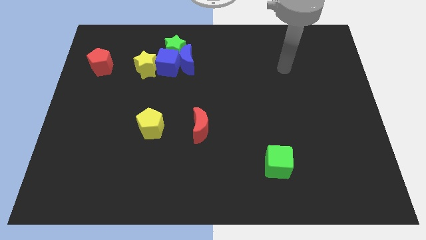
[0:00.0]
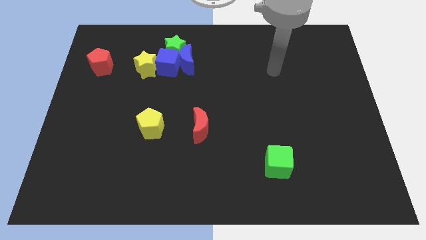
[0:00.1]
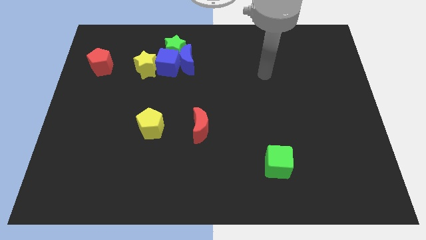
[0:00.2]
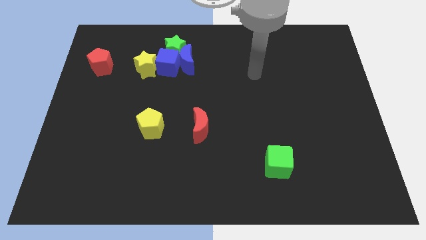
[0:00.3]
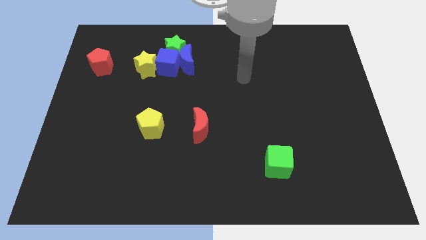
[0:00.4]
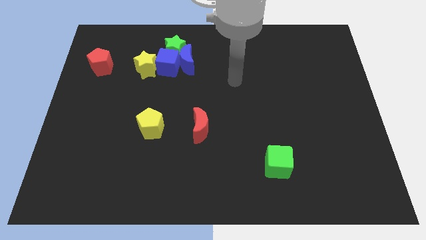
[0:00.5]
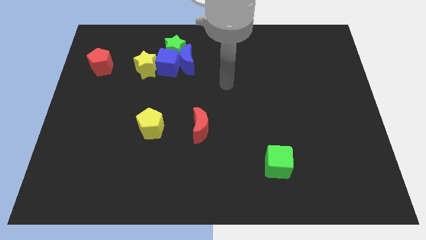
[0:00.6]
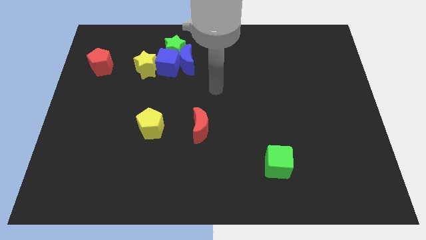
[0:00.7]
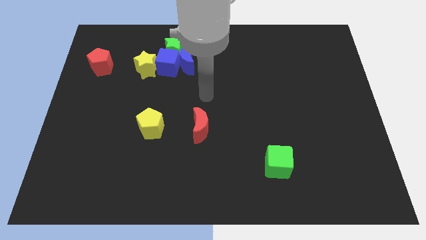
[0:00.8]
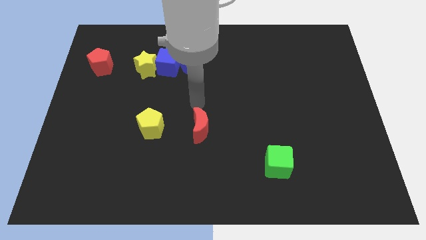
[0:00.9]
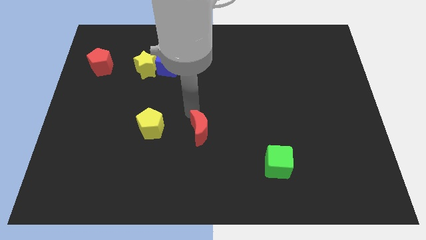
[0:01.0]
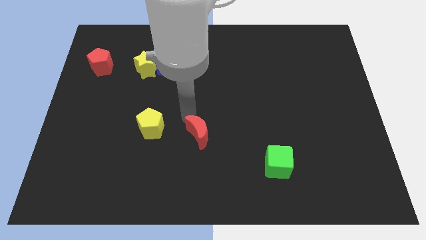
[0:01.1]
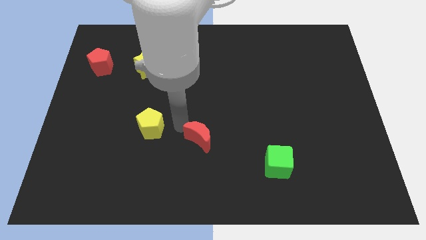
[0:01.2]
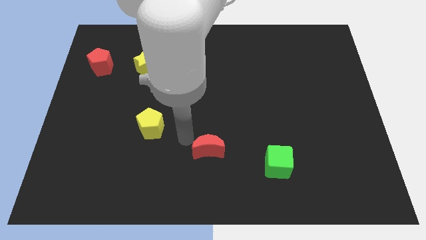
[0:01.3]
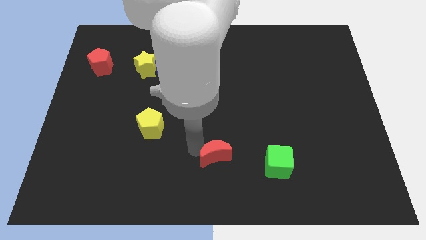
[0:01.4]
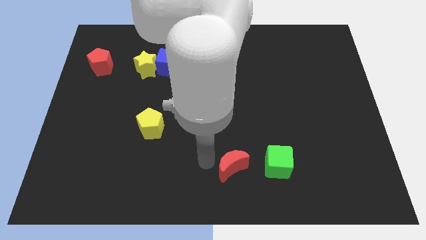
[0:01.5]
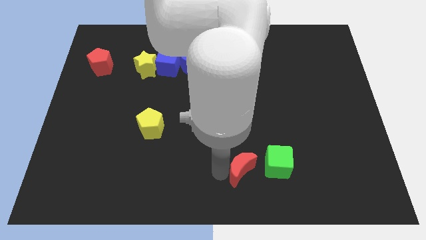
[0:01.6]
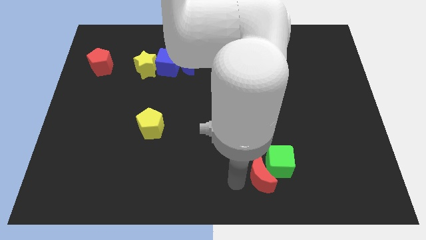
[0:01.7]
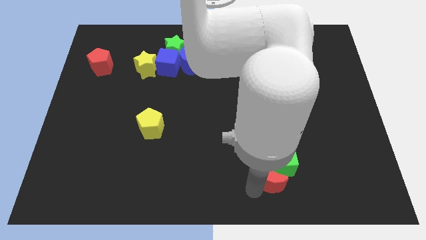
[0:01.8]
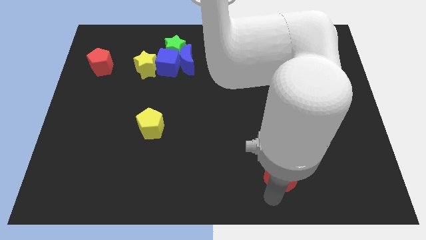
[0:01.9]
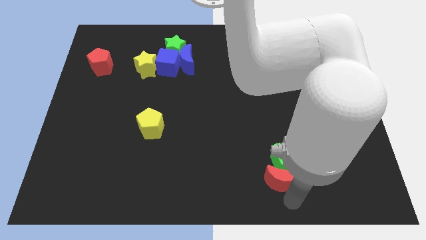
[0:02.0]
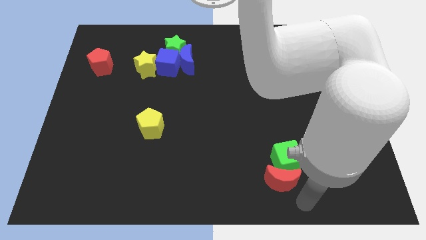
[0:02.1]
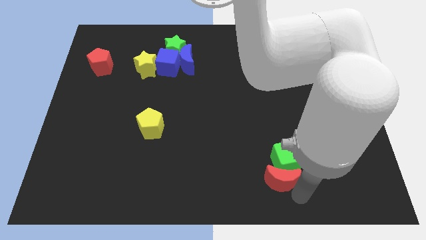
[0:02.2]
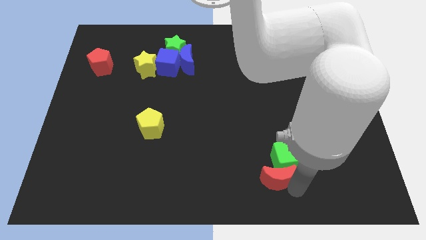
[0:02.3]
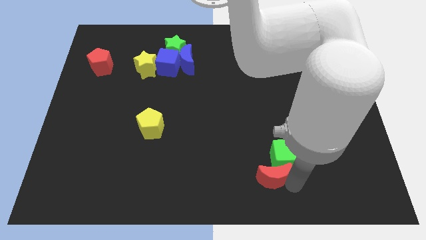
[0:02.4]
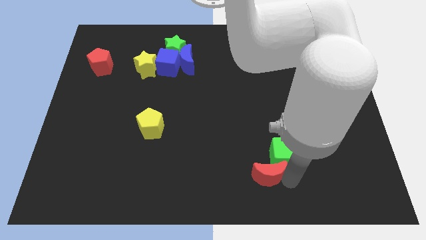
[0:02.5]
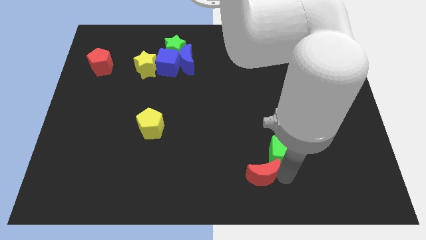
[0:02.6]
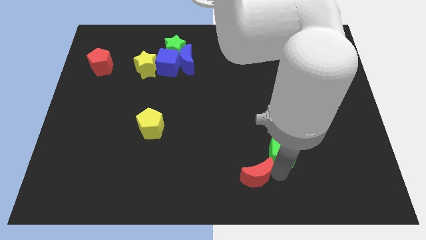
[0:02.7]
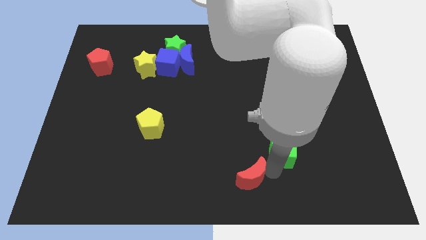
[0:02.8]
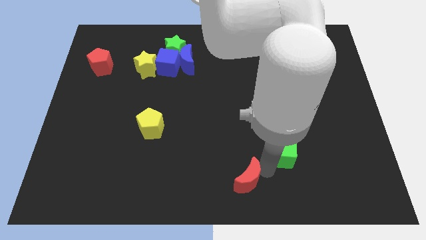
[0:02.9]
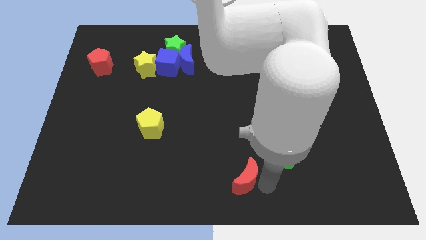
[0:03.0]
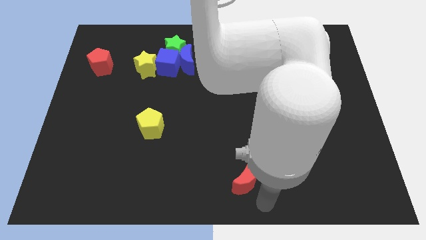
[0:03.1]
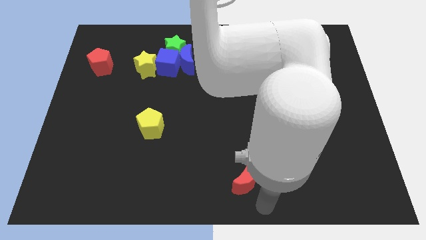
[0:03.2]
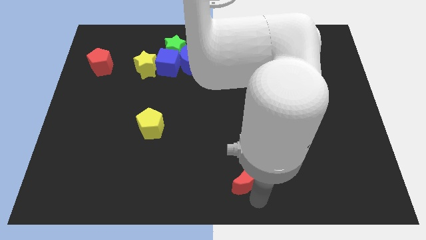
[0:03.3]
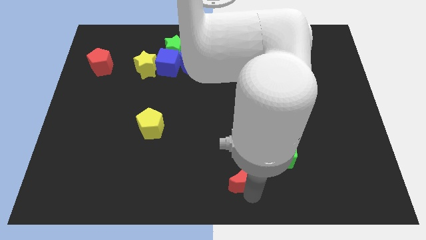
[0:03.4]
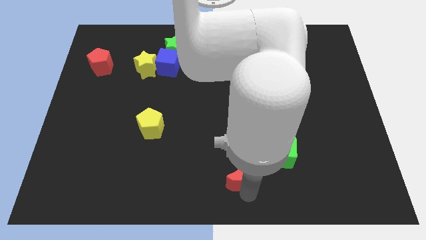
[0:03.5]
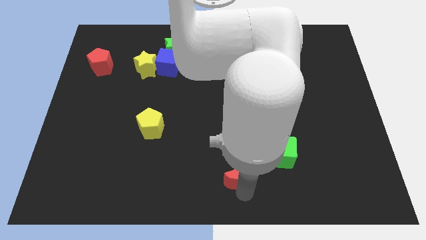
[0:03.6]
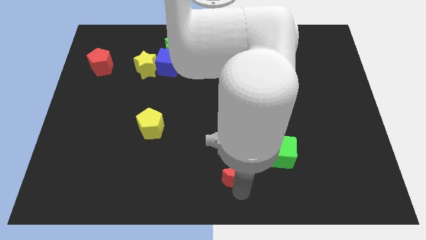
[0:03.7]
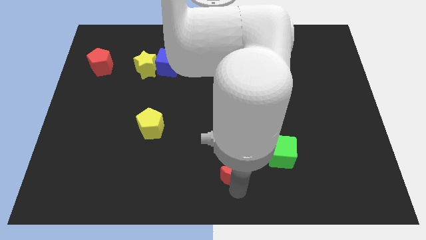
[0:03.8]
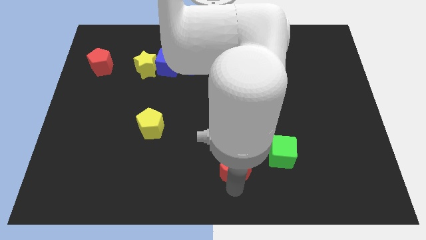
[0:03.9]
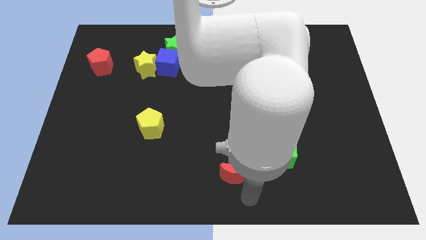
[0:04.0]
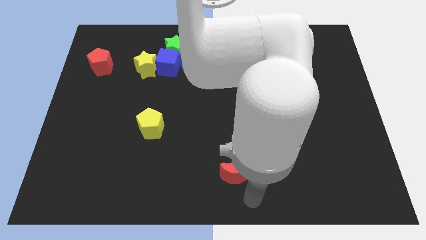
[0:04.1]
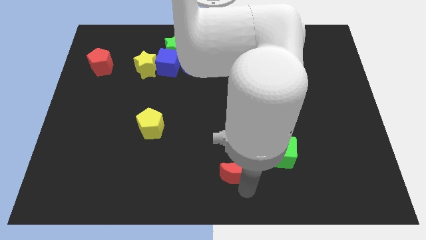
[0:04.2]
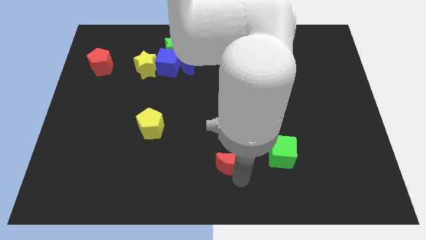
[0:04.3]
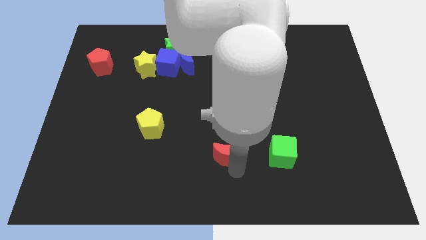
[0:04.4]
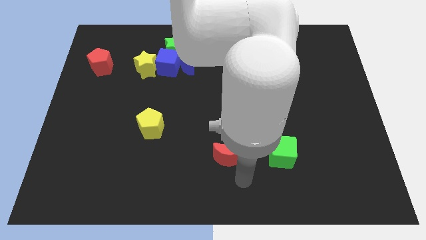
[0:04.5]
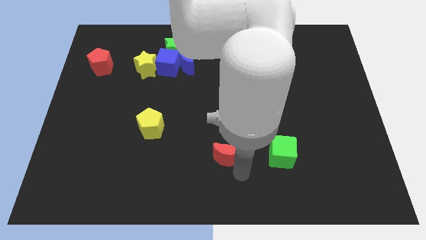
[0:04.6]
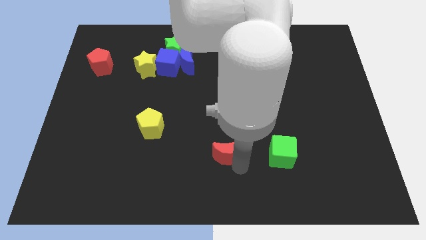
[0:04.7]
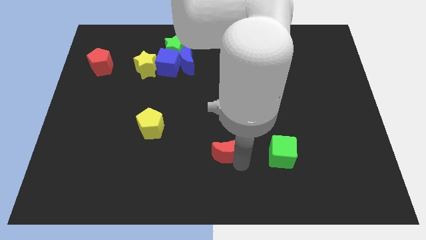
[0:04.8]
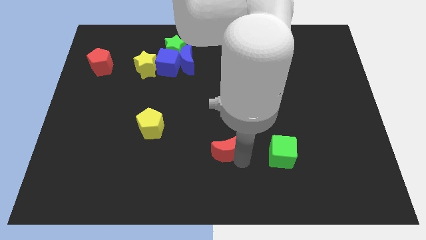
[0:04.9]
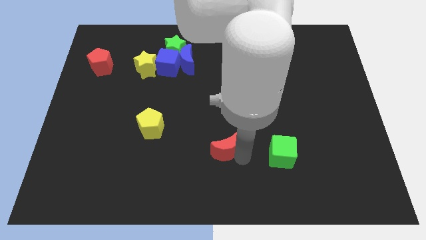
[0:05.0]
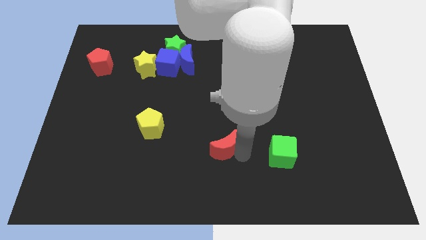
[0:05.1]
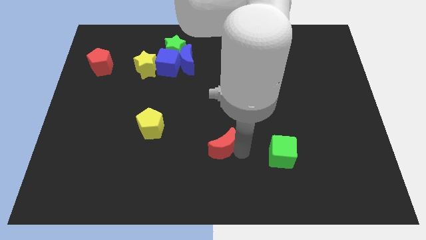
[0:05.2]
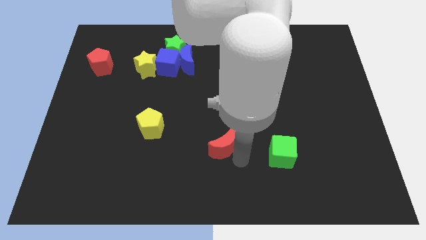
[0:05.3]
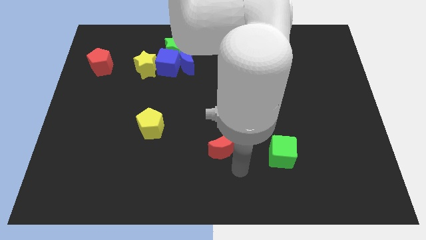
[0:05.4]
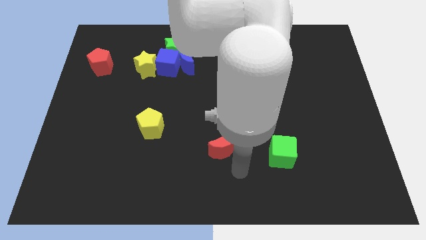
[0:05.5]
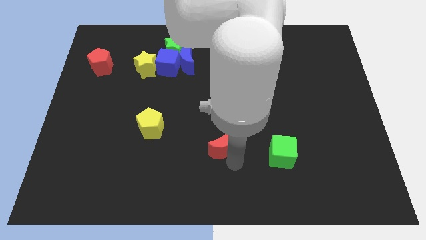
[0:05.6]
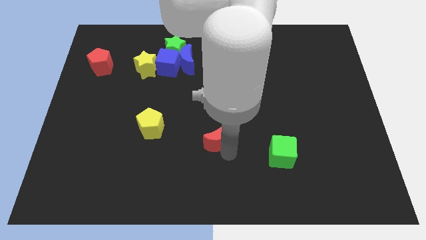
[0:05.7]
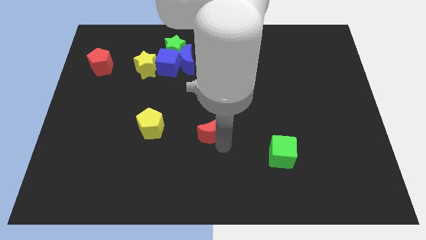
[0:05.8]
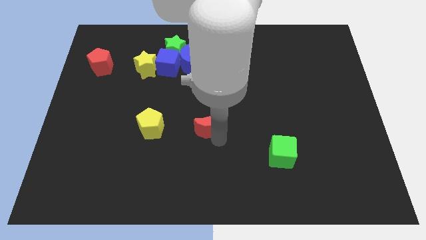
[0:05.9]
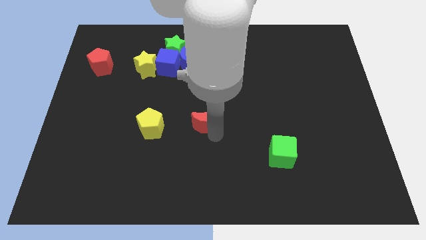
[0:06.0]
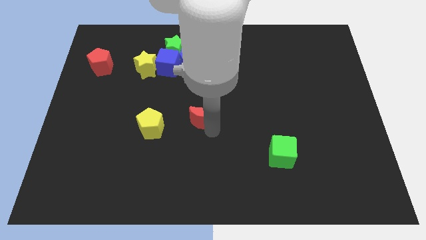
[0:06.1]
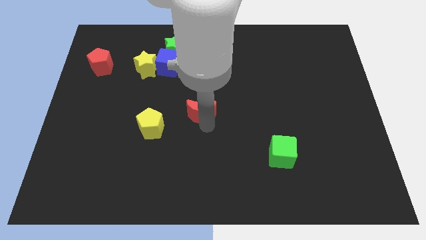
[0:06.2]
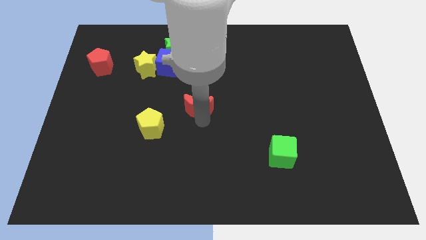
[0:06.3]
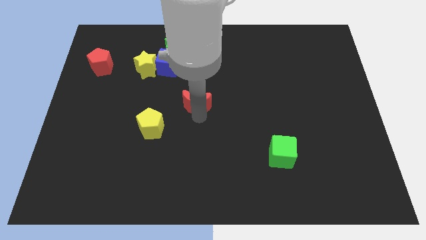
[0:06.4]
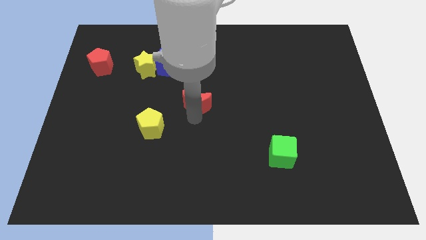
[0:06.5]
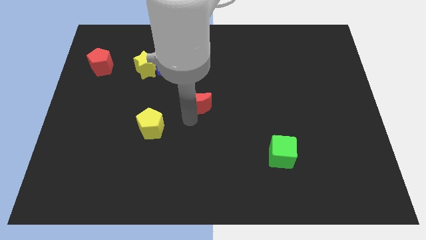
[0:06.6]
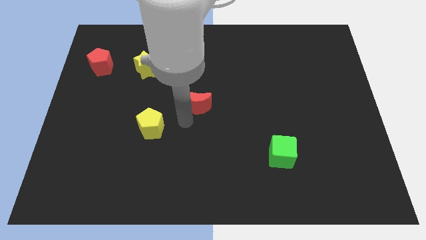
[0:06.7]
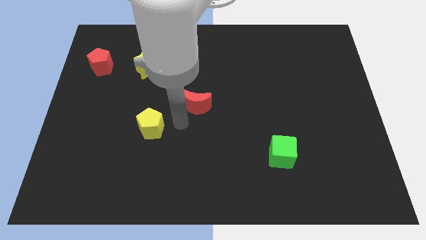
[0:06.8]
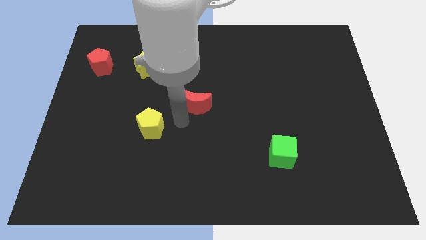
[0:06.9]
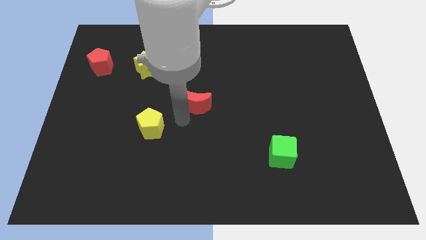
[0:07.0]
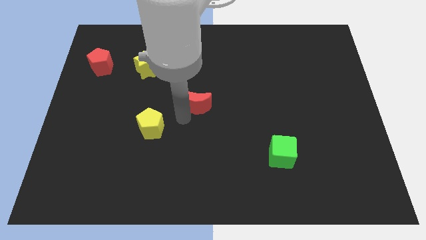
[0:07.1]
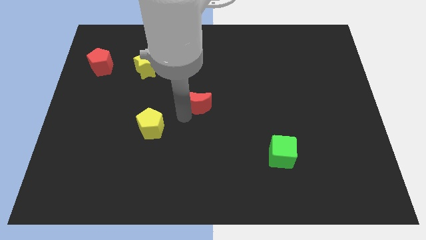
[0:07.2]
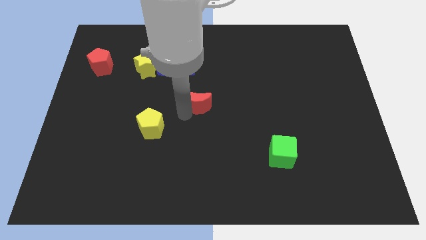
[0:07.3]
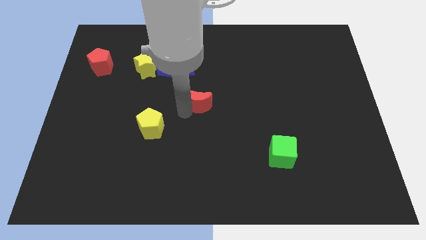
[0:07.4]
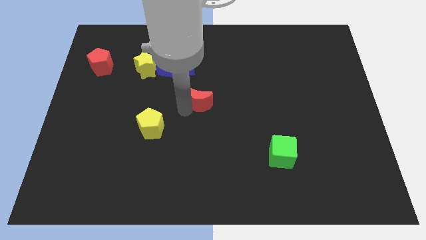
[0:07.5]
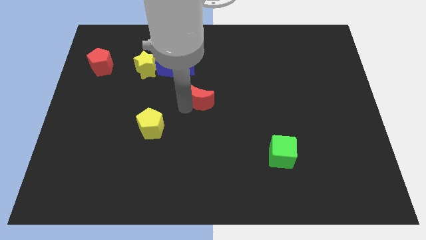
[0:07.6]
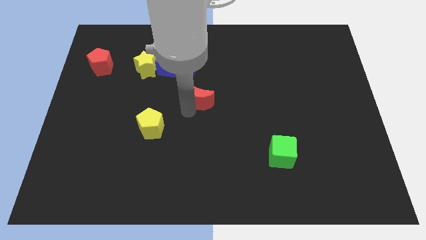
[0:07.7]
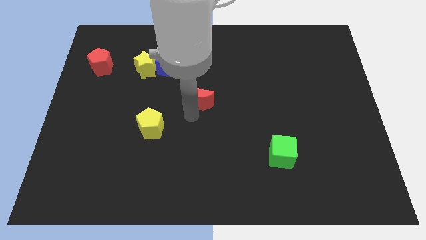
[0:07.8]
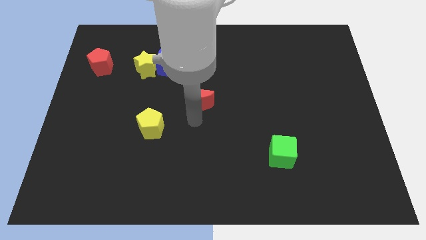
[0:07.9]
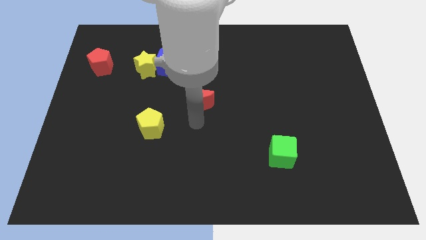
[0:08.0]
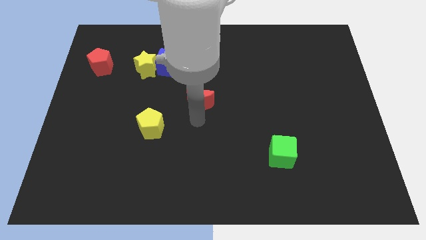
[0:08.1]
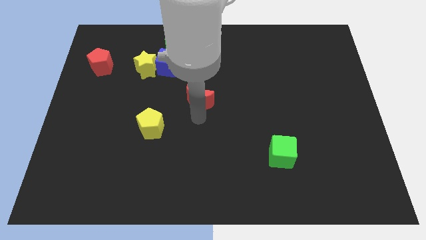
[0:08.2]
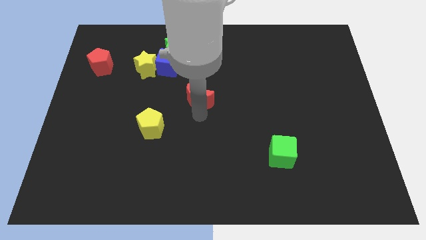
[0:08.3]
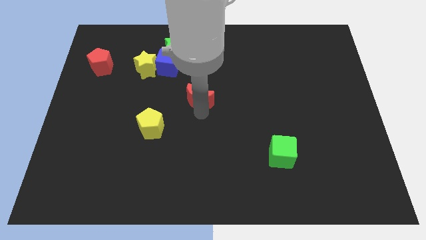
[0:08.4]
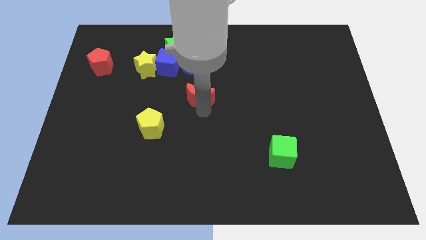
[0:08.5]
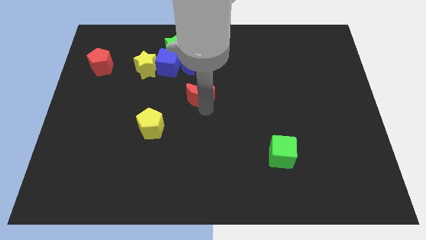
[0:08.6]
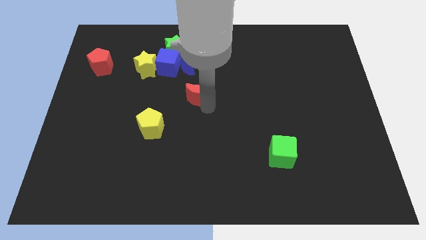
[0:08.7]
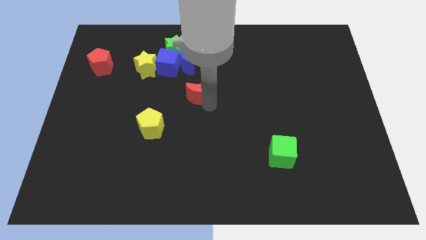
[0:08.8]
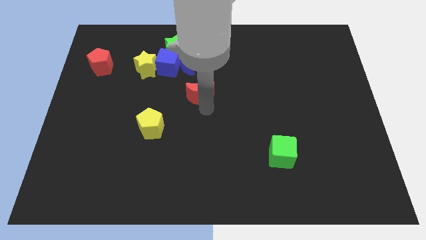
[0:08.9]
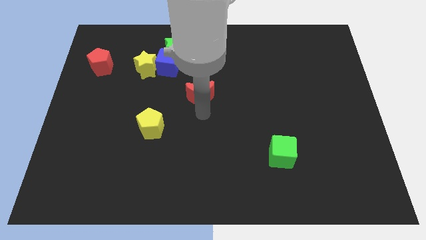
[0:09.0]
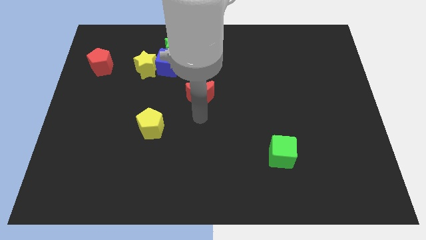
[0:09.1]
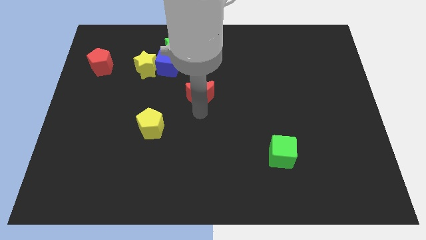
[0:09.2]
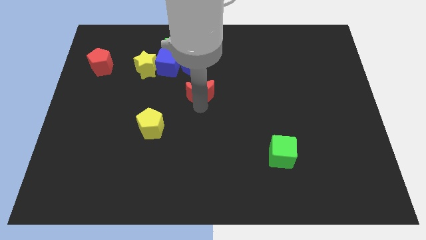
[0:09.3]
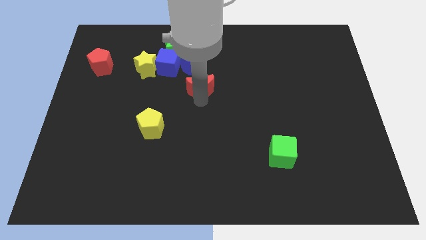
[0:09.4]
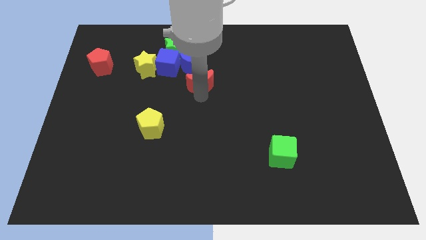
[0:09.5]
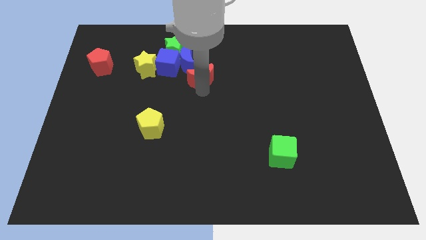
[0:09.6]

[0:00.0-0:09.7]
move the red moon to the bottom right side of the green star
